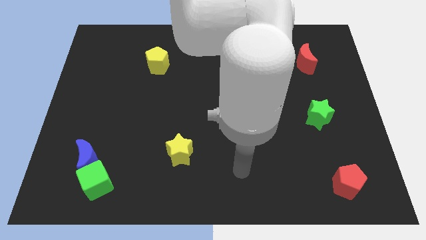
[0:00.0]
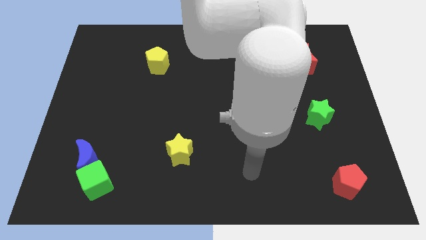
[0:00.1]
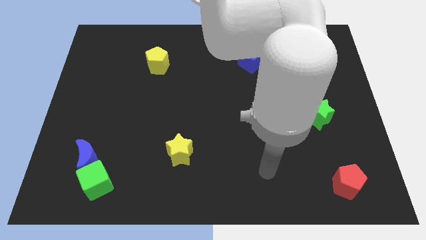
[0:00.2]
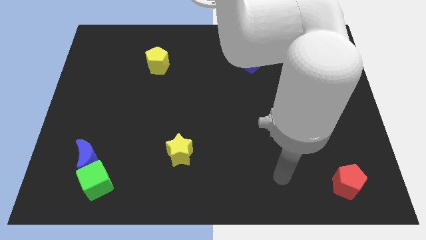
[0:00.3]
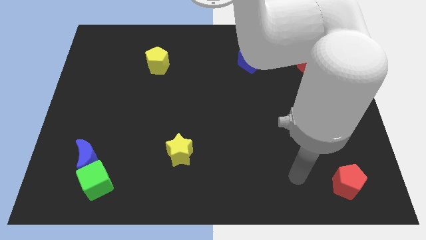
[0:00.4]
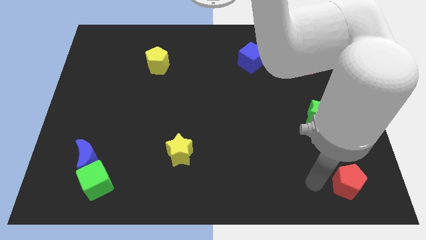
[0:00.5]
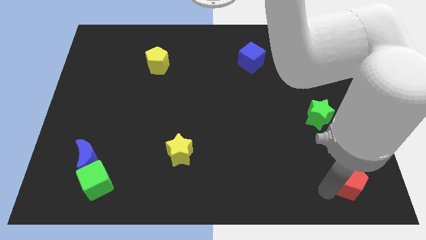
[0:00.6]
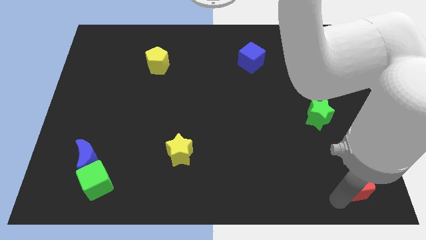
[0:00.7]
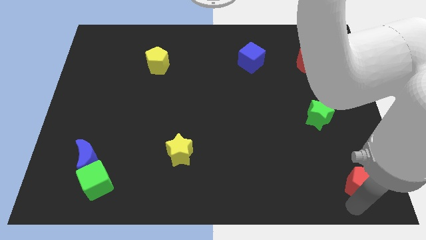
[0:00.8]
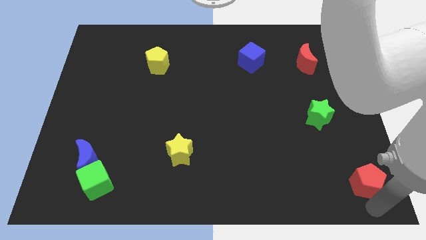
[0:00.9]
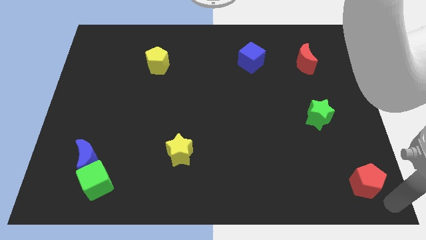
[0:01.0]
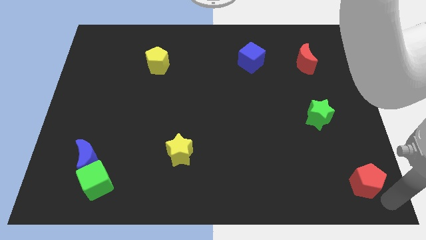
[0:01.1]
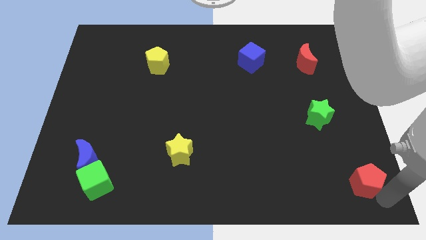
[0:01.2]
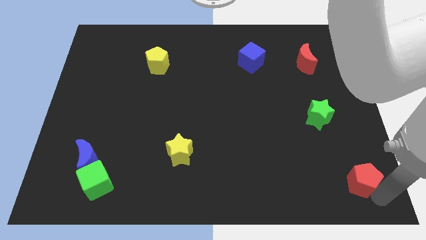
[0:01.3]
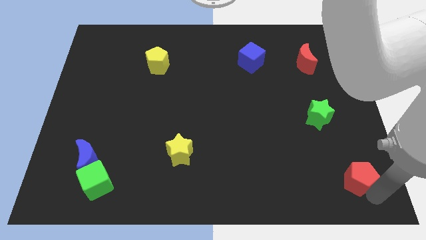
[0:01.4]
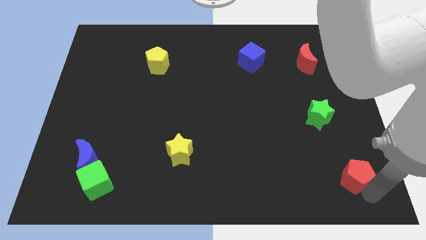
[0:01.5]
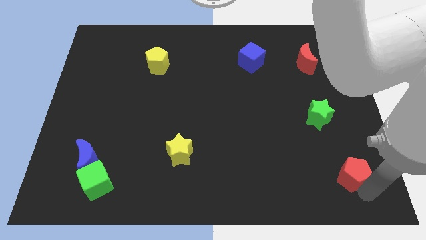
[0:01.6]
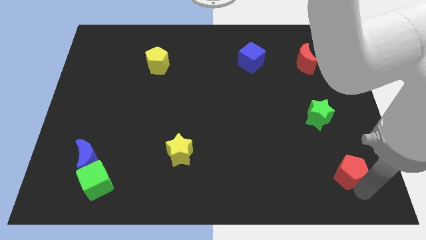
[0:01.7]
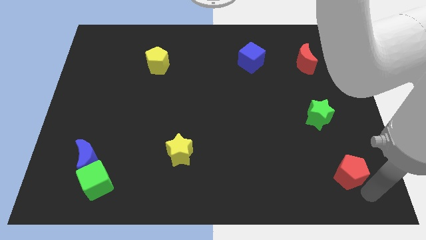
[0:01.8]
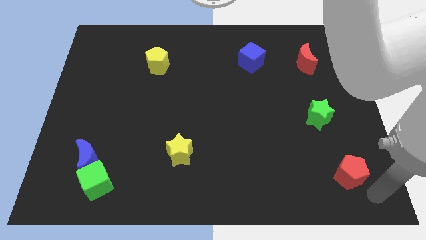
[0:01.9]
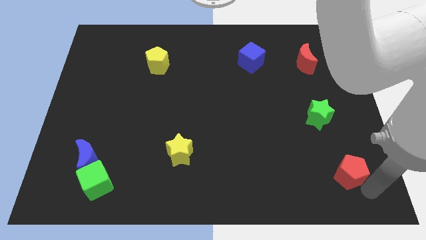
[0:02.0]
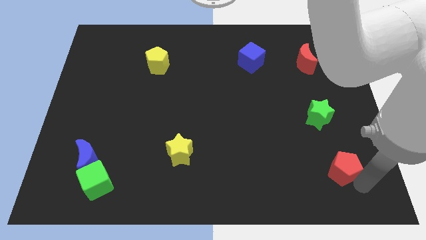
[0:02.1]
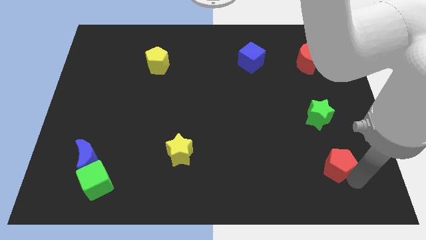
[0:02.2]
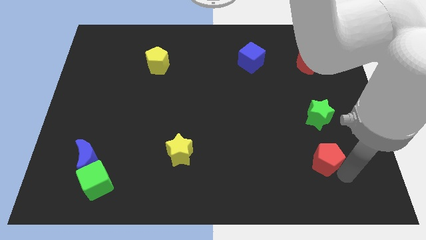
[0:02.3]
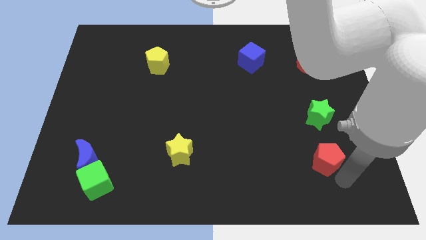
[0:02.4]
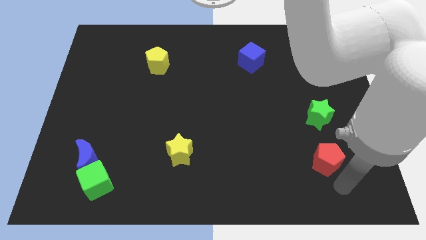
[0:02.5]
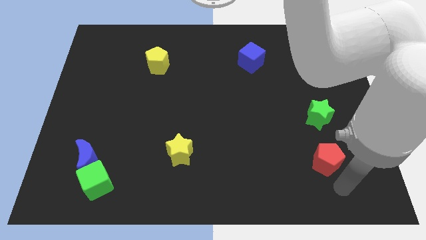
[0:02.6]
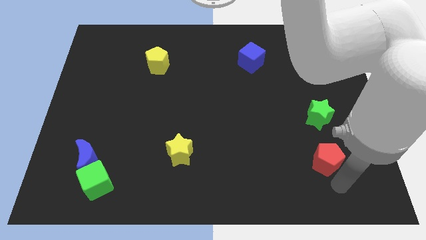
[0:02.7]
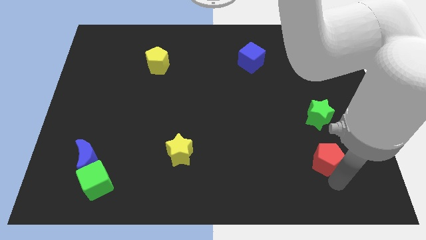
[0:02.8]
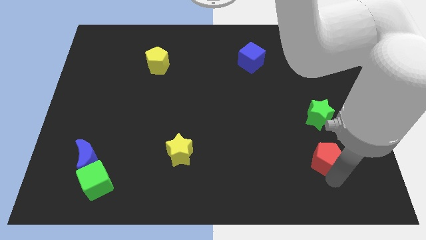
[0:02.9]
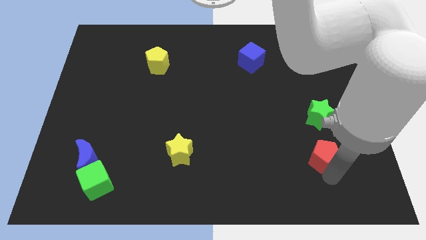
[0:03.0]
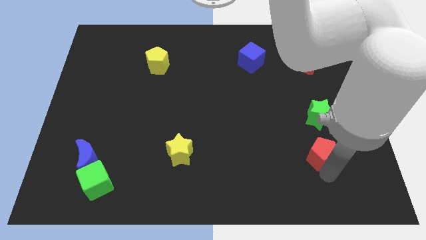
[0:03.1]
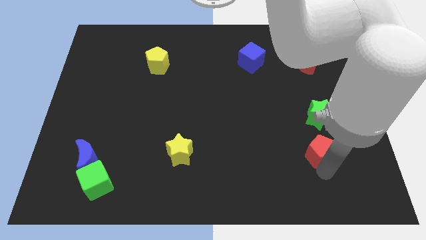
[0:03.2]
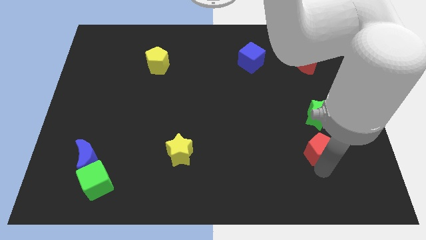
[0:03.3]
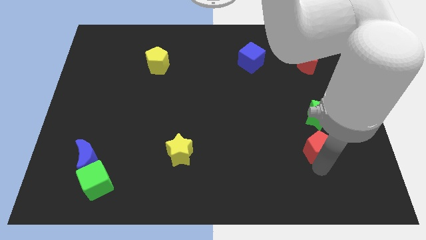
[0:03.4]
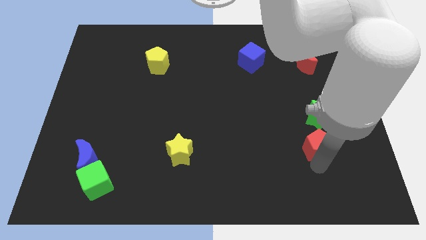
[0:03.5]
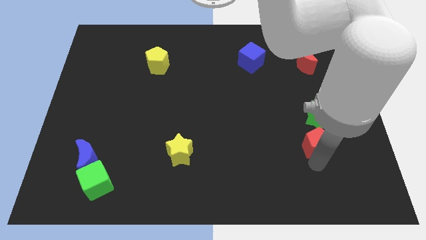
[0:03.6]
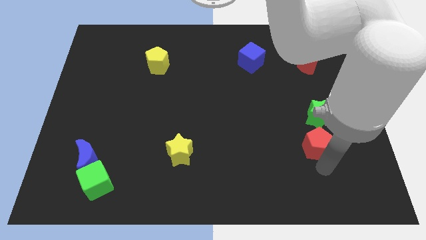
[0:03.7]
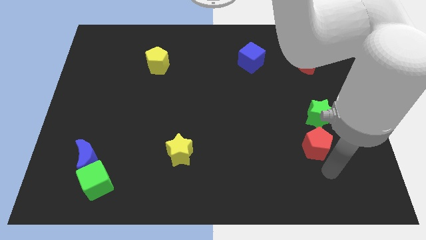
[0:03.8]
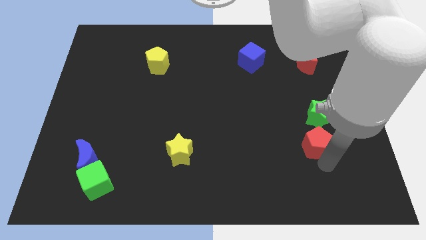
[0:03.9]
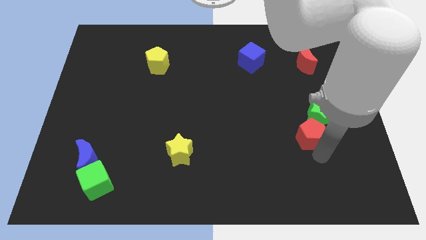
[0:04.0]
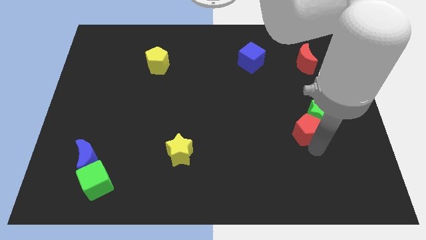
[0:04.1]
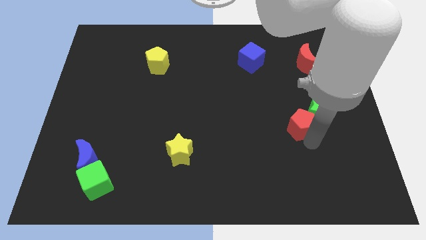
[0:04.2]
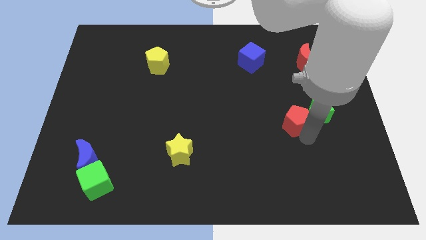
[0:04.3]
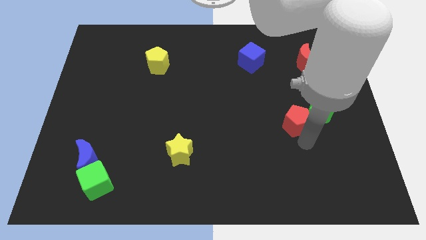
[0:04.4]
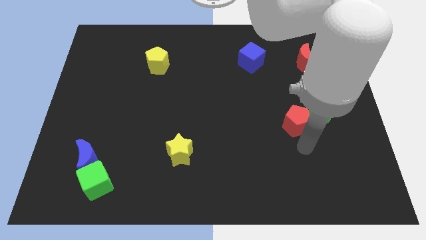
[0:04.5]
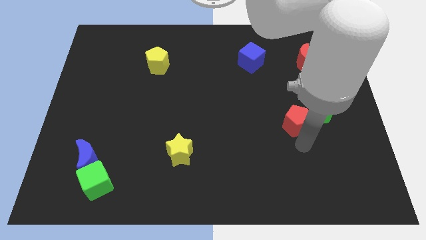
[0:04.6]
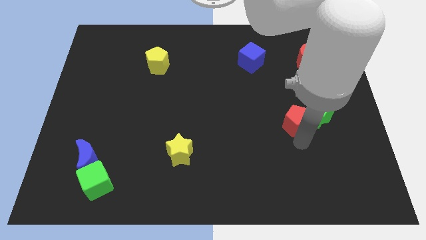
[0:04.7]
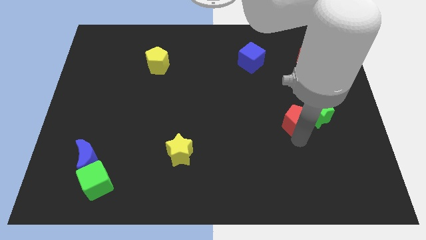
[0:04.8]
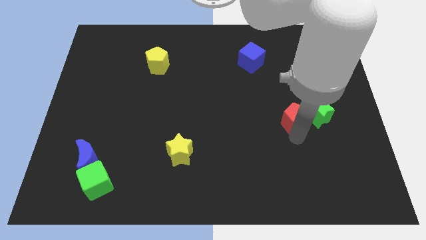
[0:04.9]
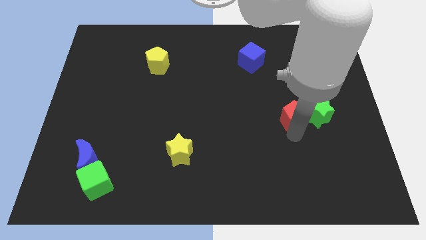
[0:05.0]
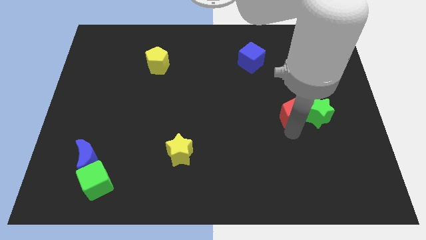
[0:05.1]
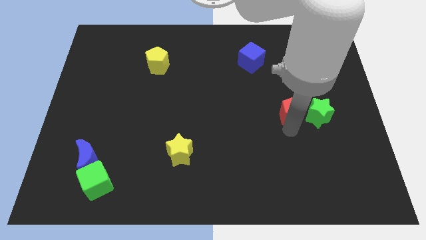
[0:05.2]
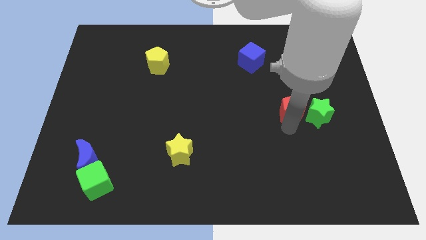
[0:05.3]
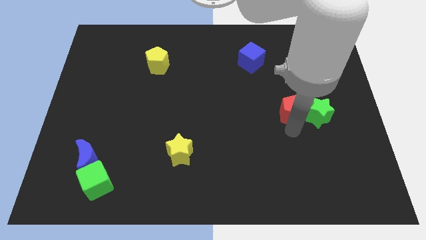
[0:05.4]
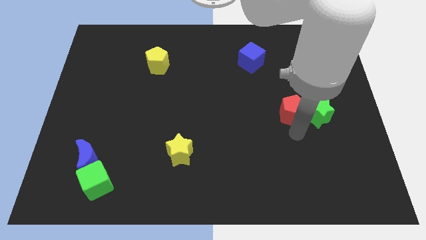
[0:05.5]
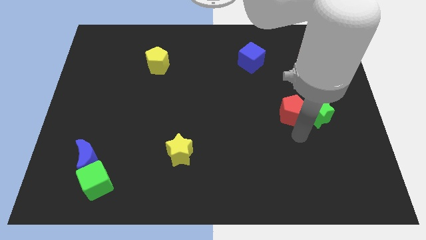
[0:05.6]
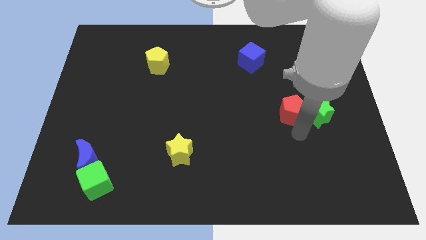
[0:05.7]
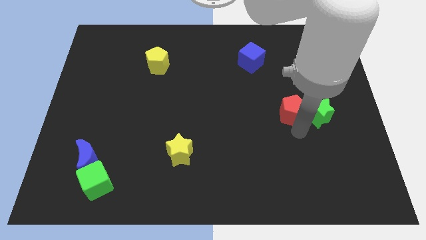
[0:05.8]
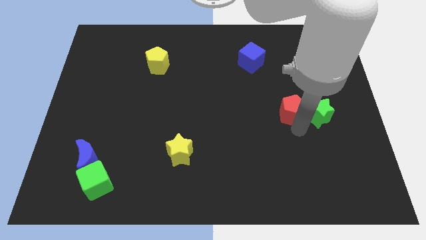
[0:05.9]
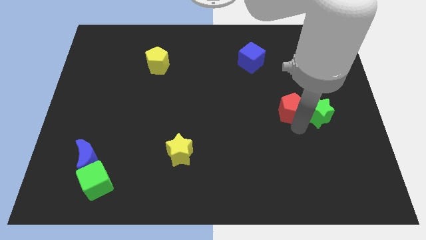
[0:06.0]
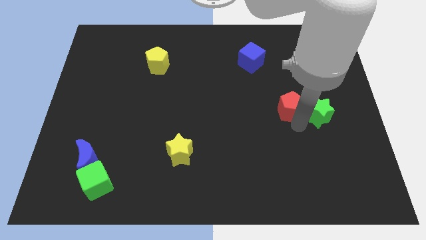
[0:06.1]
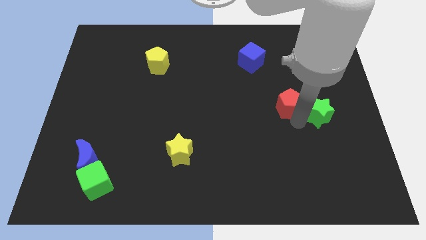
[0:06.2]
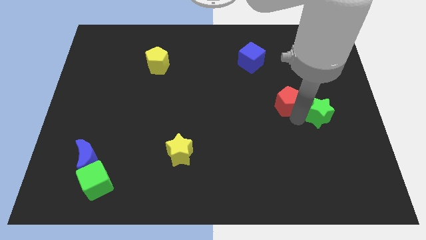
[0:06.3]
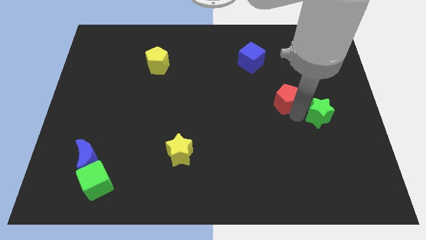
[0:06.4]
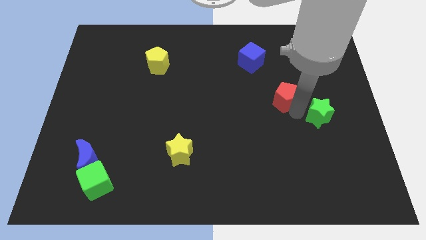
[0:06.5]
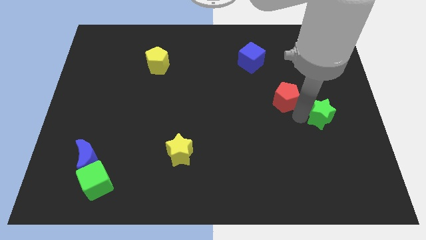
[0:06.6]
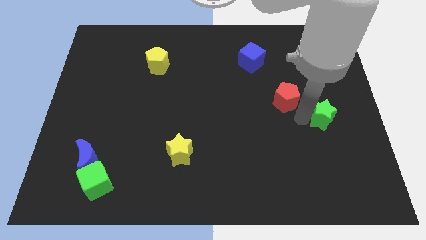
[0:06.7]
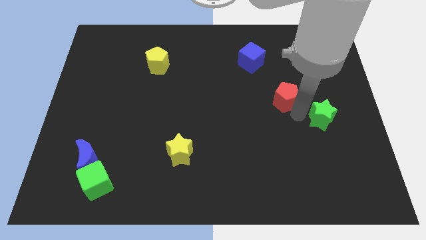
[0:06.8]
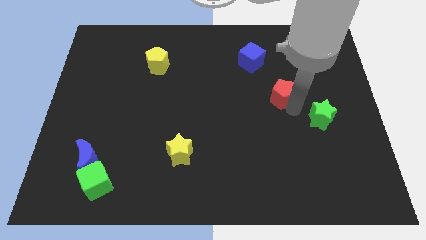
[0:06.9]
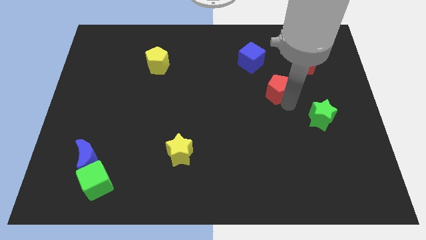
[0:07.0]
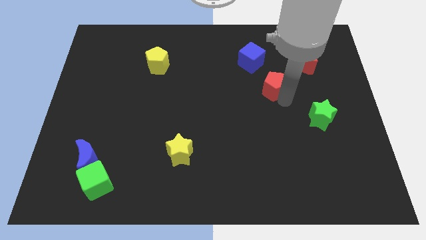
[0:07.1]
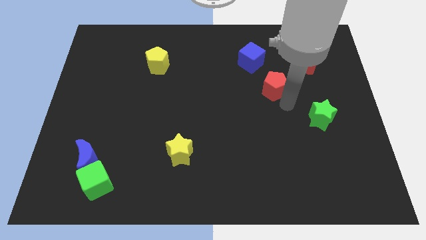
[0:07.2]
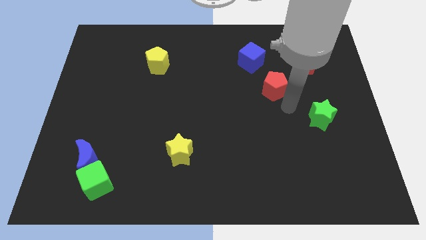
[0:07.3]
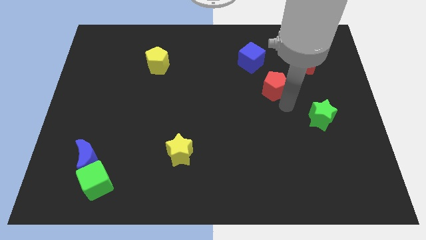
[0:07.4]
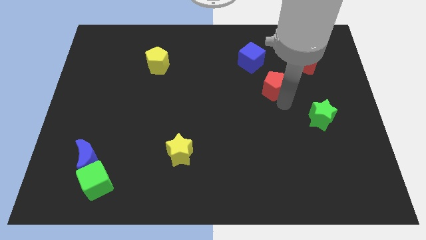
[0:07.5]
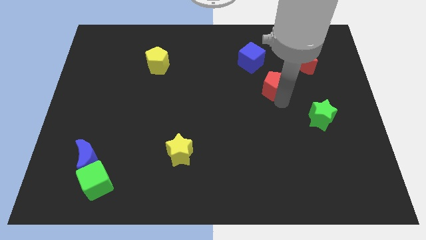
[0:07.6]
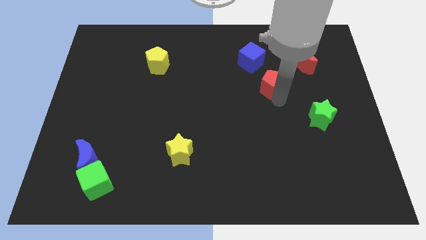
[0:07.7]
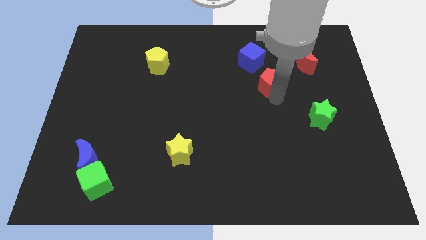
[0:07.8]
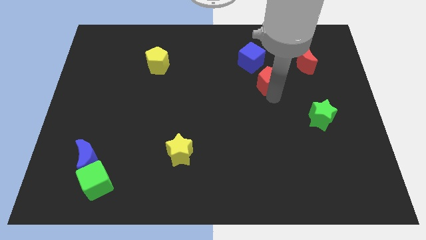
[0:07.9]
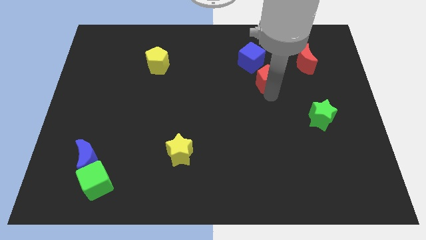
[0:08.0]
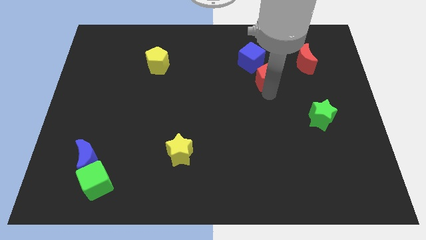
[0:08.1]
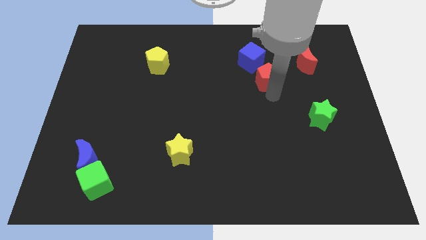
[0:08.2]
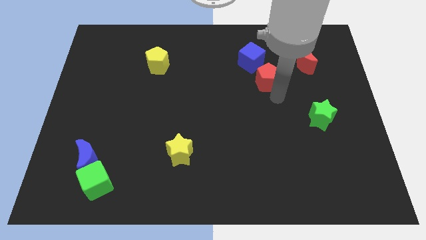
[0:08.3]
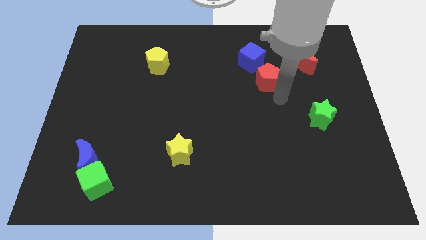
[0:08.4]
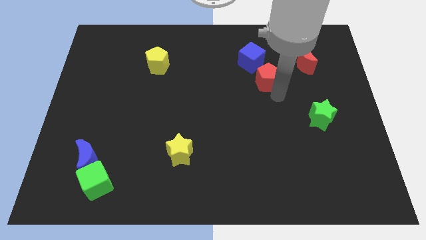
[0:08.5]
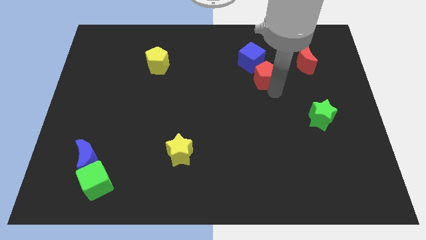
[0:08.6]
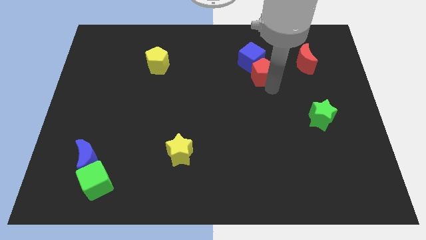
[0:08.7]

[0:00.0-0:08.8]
move the red pentagon next to the blue cube
